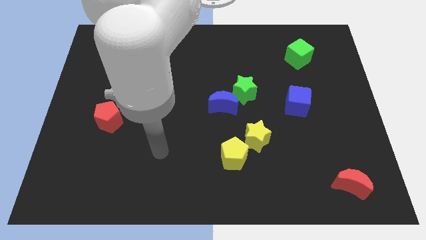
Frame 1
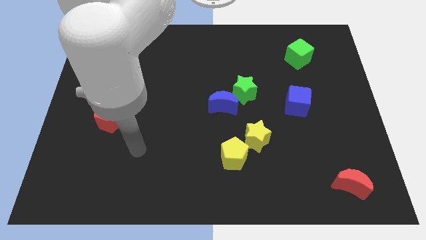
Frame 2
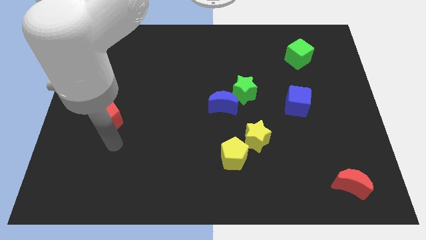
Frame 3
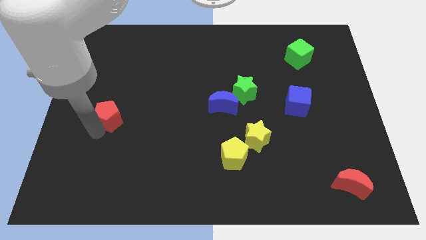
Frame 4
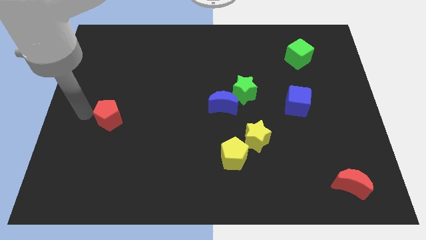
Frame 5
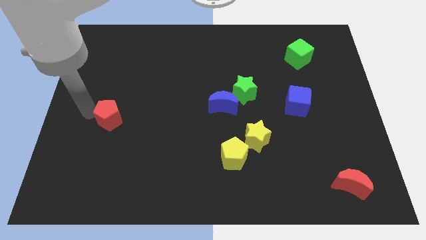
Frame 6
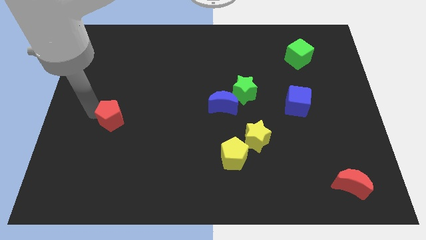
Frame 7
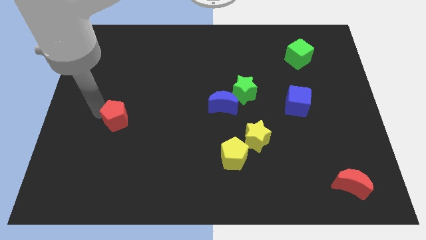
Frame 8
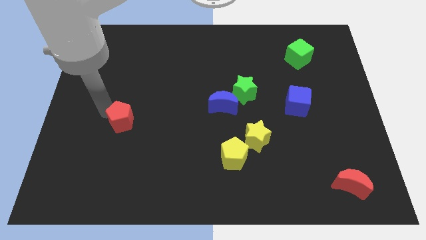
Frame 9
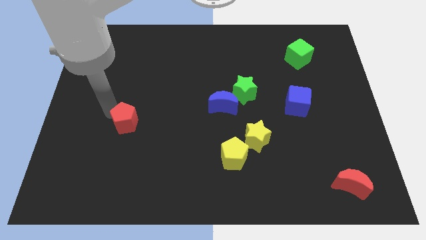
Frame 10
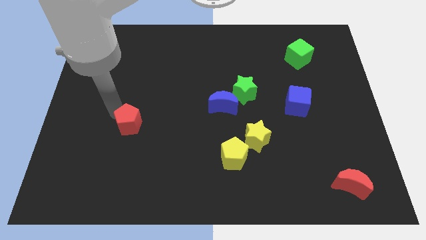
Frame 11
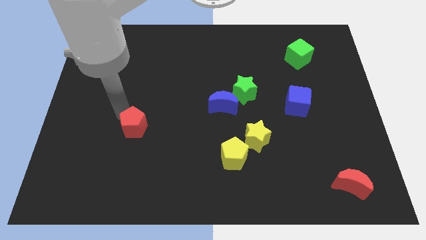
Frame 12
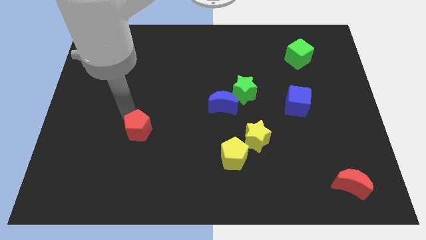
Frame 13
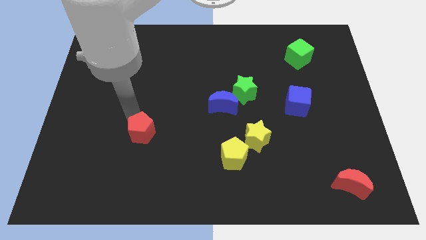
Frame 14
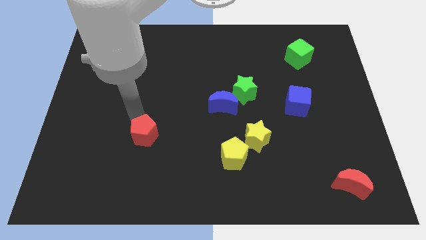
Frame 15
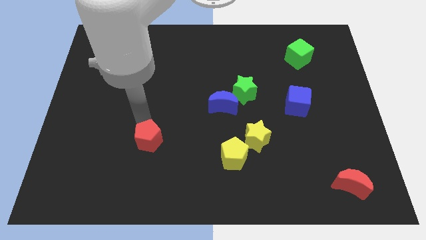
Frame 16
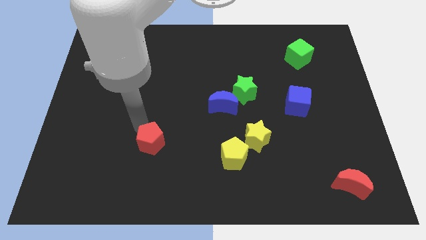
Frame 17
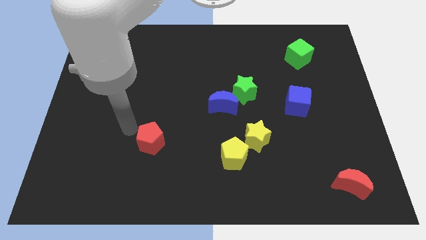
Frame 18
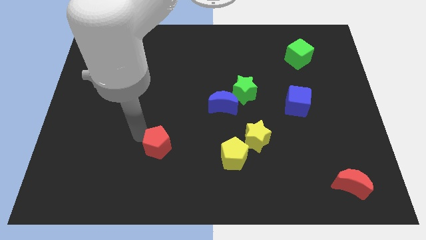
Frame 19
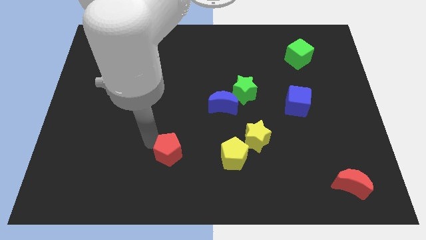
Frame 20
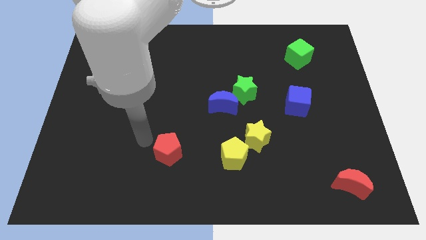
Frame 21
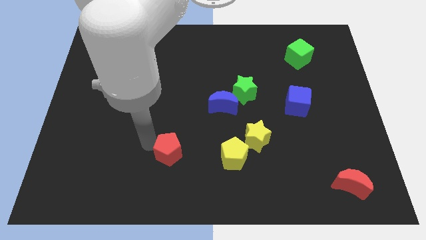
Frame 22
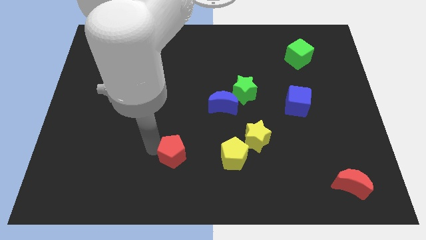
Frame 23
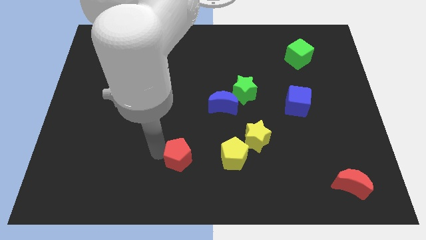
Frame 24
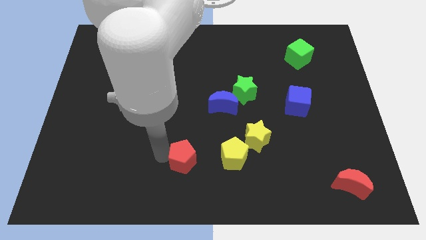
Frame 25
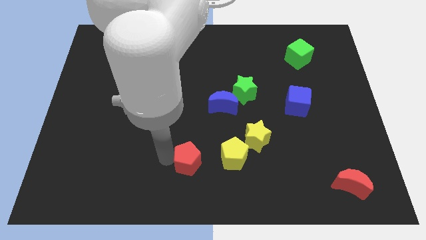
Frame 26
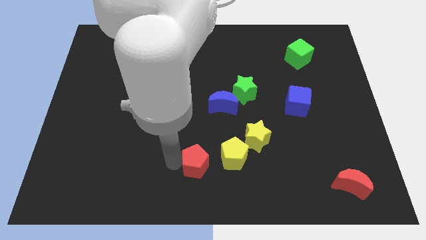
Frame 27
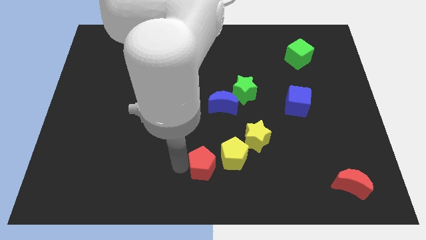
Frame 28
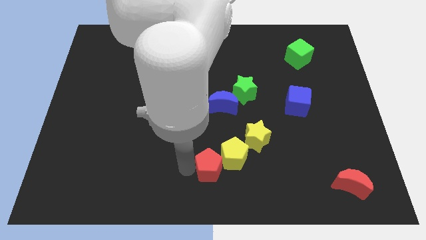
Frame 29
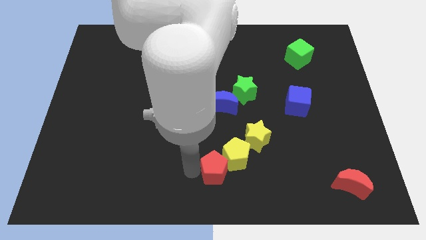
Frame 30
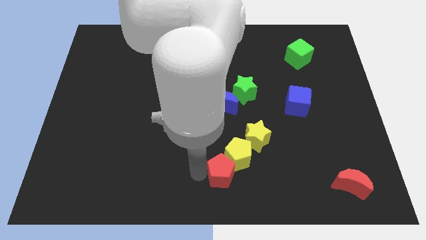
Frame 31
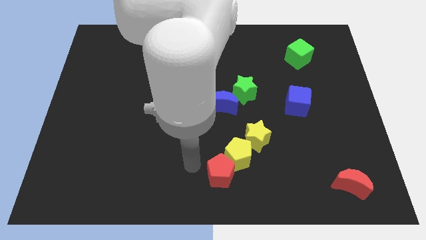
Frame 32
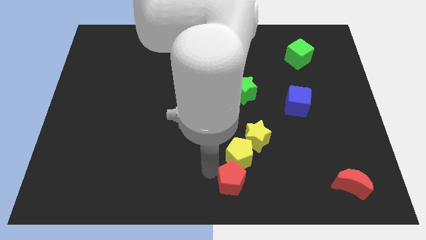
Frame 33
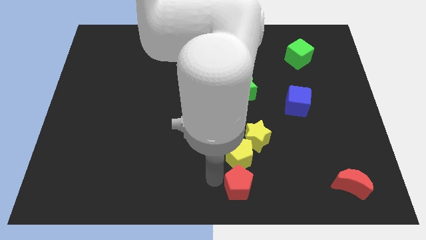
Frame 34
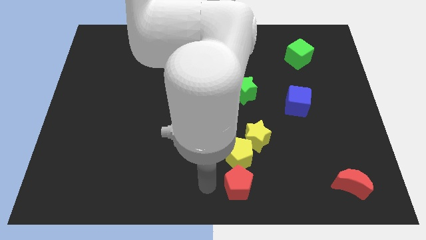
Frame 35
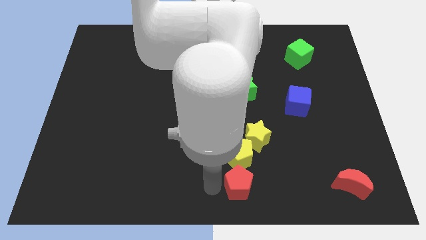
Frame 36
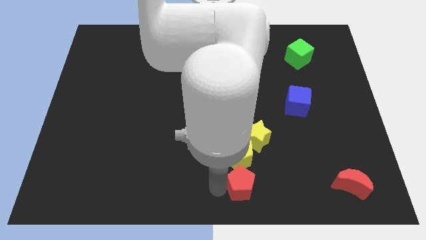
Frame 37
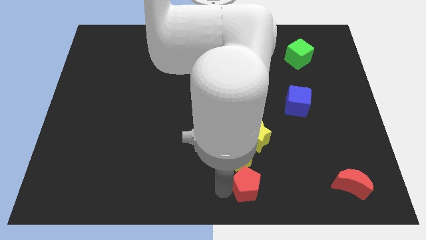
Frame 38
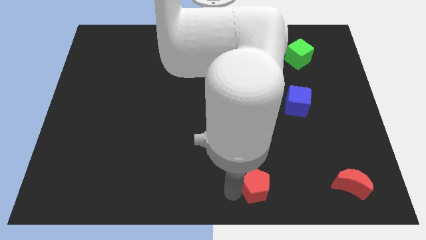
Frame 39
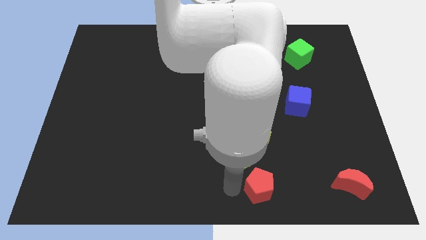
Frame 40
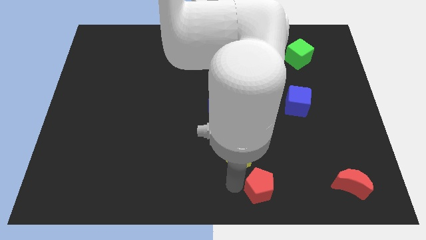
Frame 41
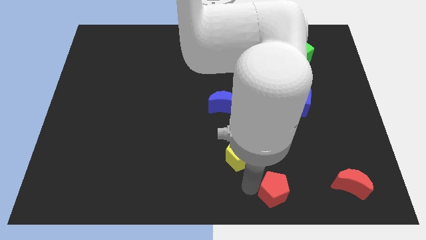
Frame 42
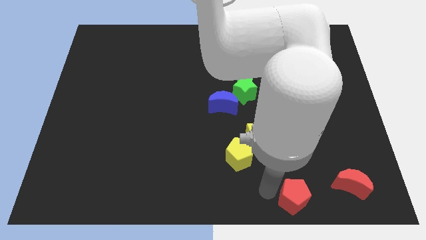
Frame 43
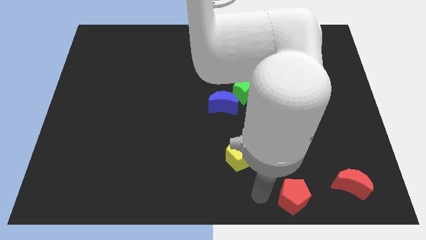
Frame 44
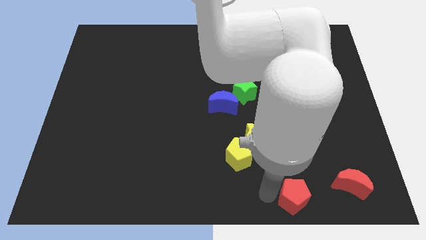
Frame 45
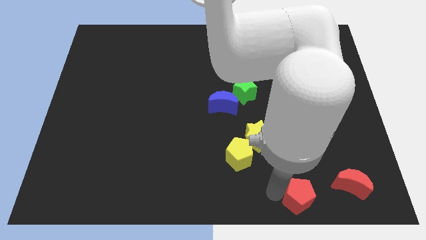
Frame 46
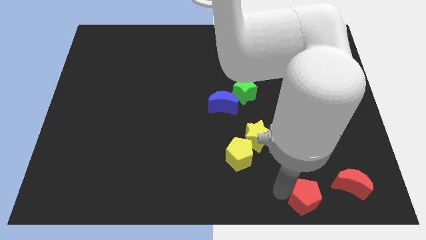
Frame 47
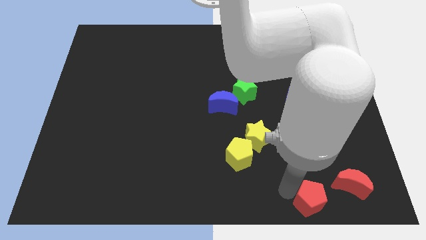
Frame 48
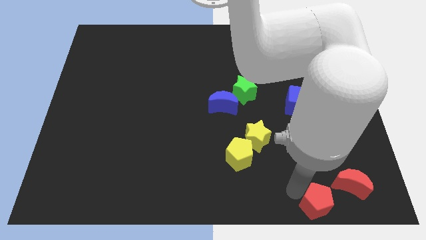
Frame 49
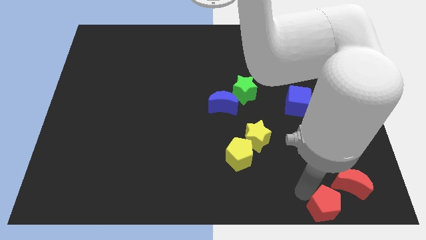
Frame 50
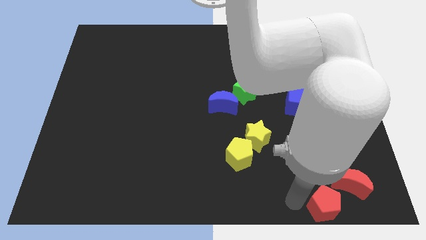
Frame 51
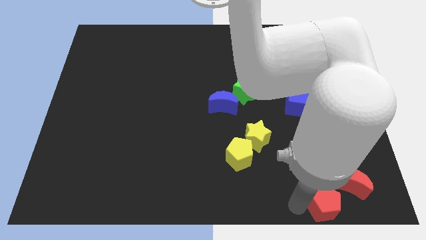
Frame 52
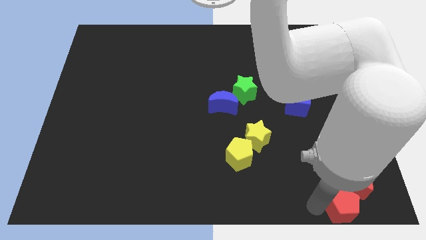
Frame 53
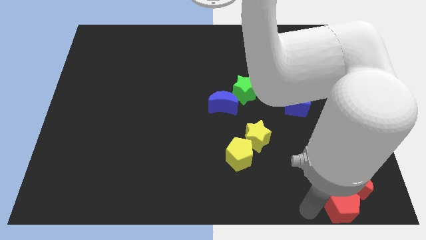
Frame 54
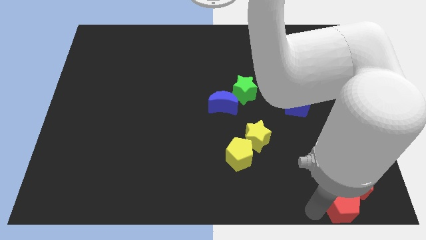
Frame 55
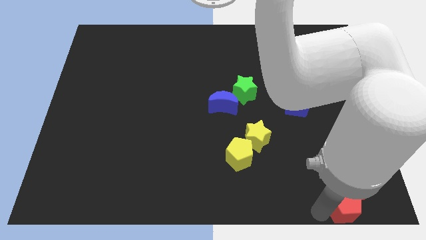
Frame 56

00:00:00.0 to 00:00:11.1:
push the red pentagon to the bottom right of the board

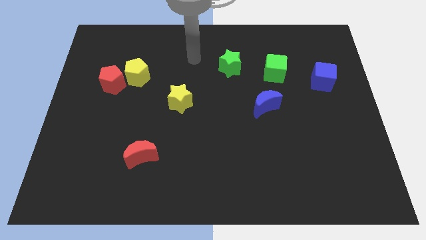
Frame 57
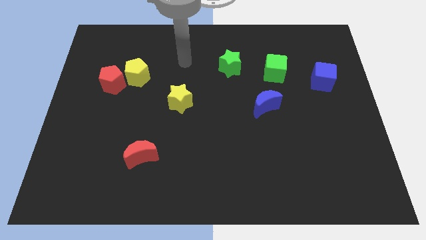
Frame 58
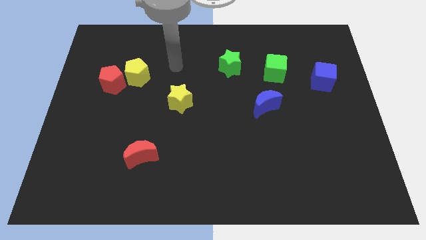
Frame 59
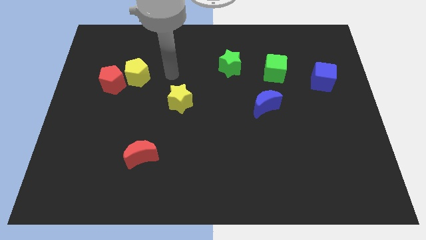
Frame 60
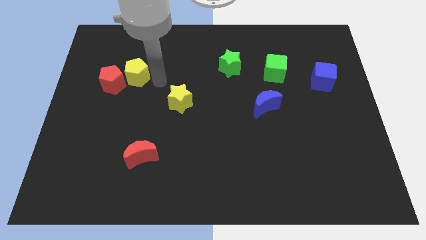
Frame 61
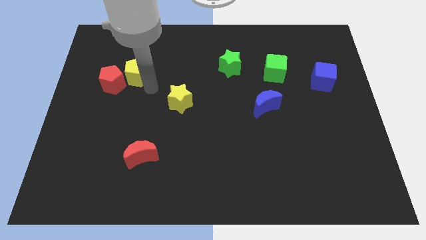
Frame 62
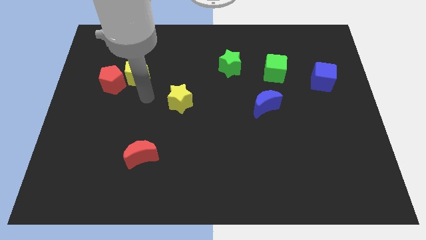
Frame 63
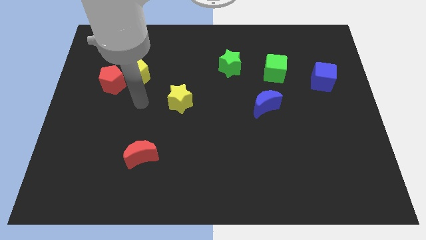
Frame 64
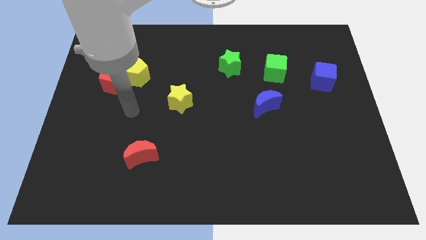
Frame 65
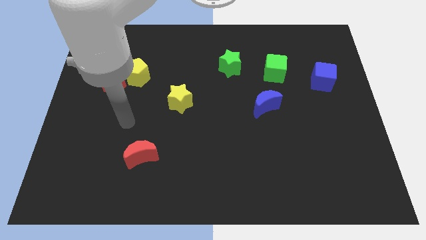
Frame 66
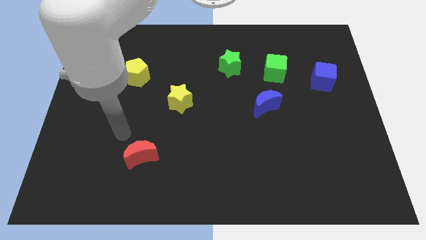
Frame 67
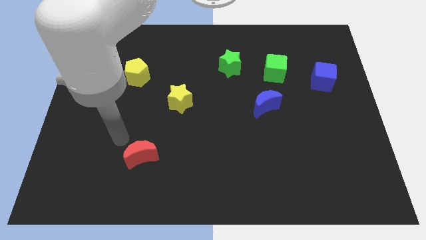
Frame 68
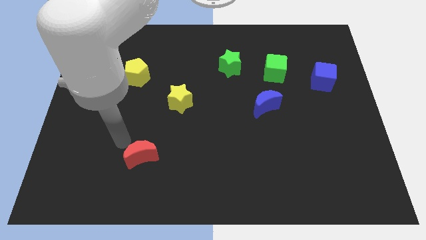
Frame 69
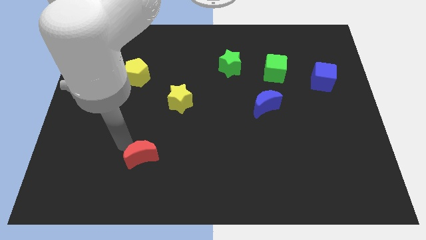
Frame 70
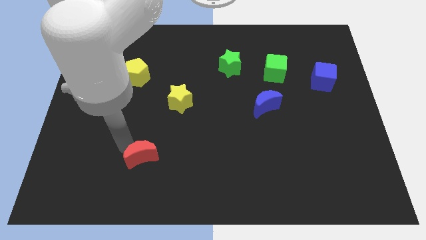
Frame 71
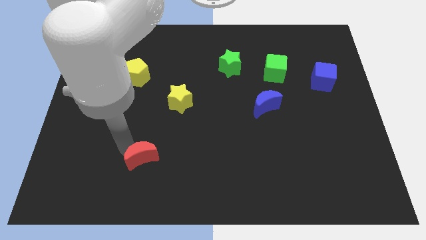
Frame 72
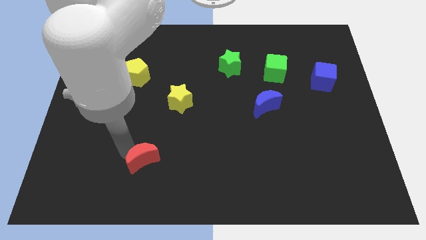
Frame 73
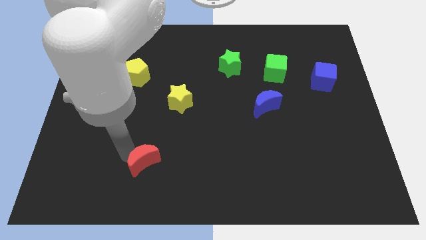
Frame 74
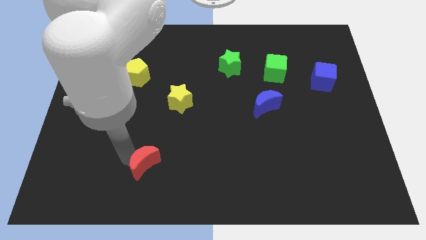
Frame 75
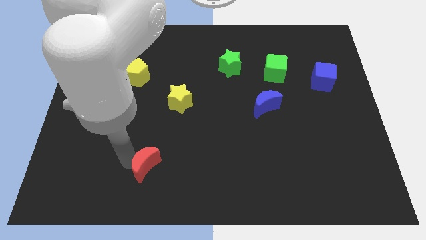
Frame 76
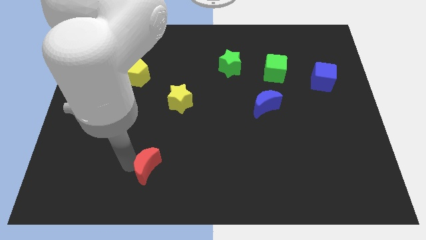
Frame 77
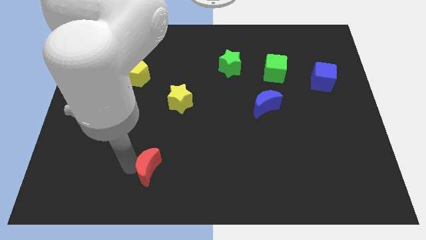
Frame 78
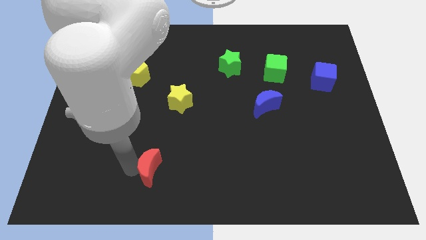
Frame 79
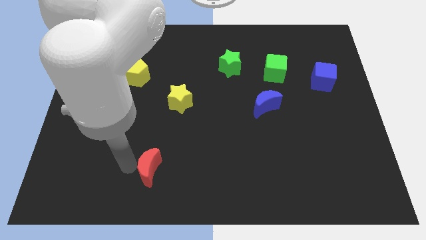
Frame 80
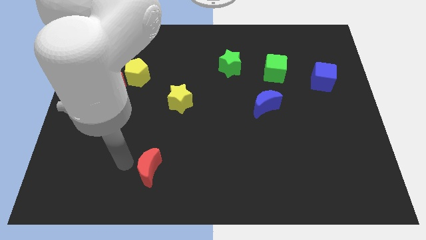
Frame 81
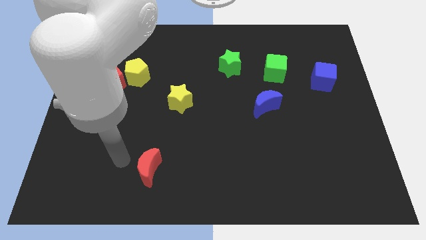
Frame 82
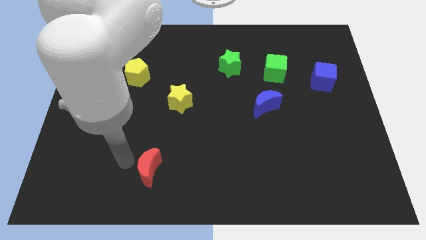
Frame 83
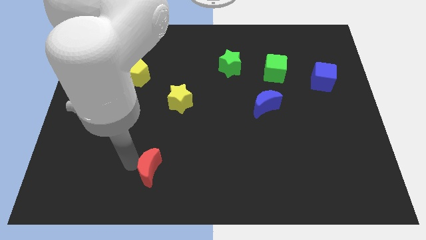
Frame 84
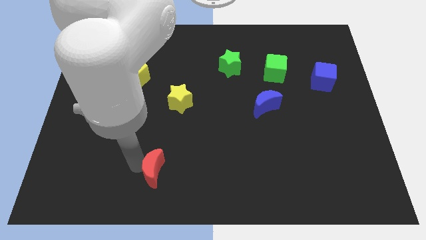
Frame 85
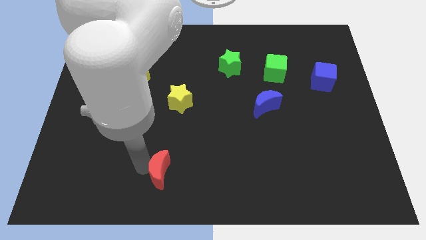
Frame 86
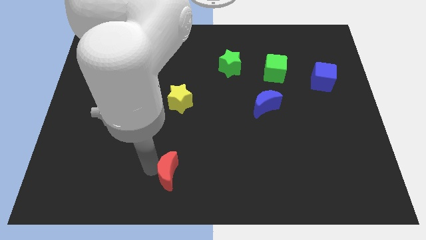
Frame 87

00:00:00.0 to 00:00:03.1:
slide the red moon to the bottom
